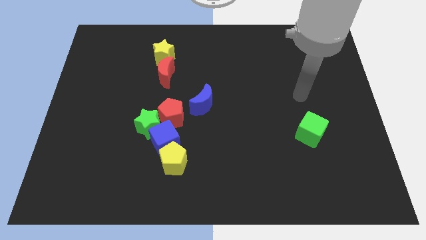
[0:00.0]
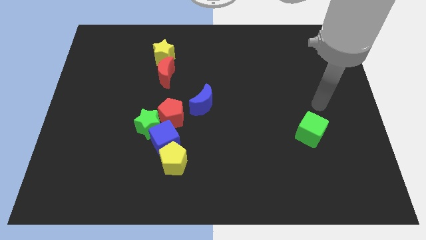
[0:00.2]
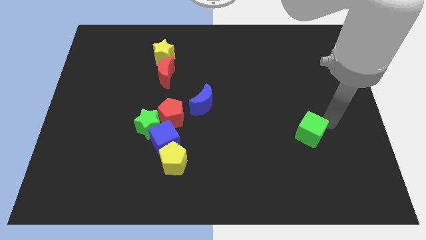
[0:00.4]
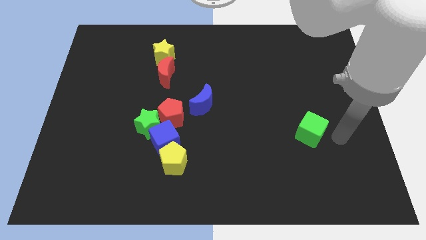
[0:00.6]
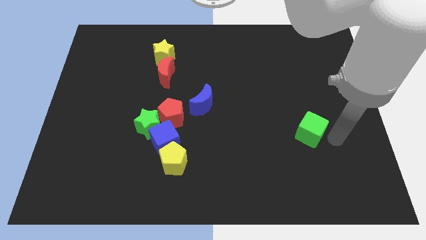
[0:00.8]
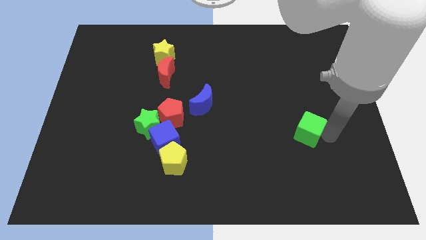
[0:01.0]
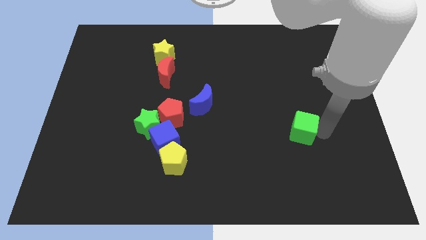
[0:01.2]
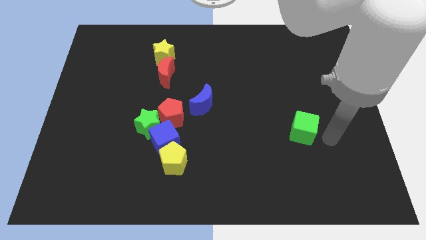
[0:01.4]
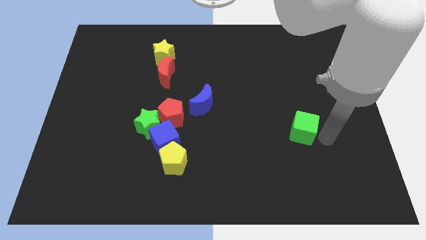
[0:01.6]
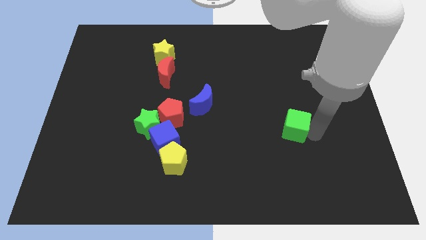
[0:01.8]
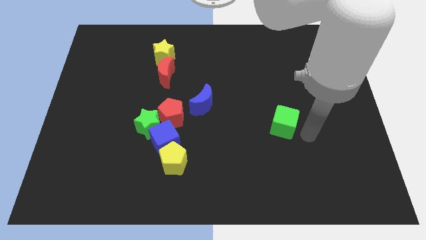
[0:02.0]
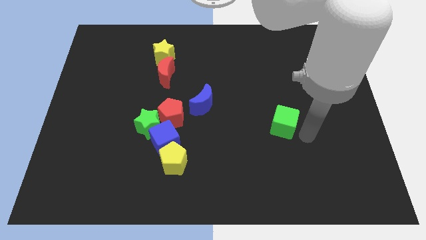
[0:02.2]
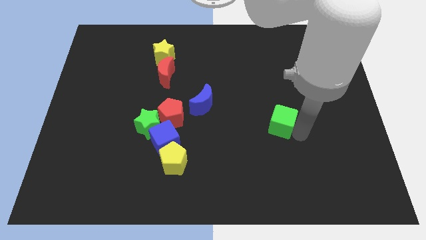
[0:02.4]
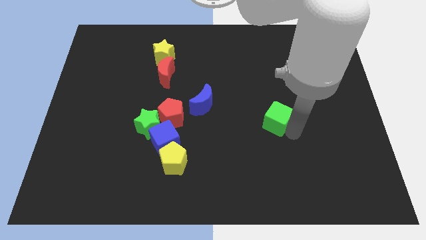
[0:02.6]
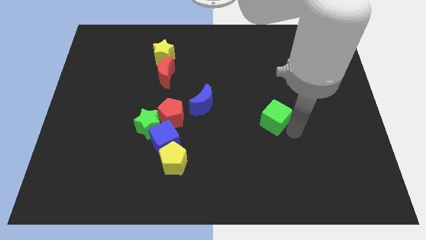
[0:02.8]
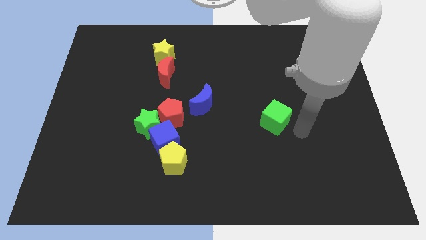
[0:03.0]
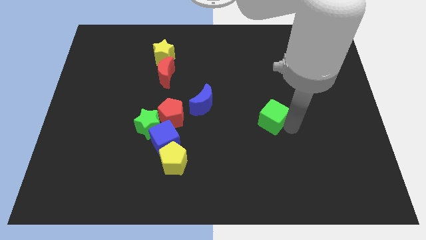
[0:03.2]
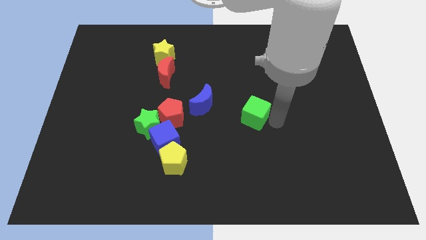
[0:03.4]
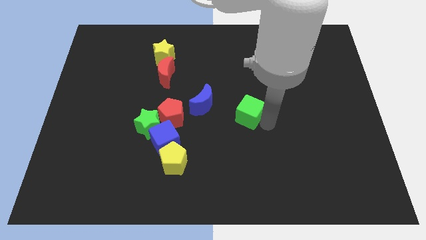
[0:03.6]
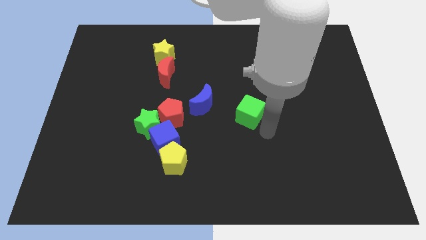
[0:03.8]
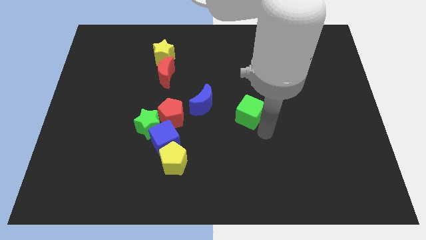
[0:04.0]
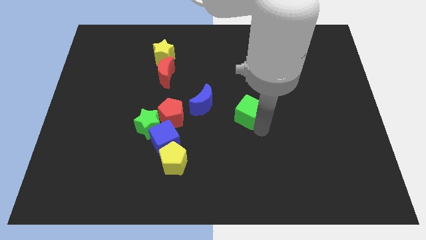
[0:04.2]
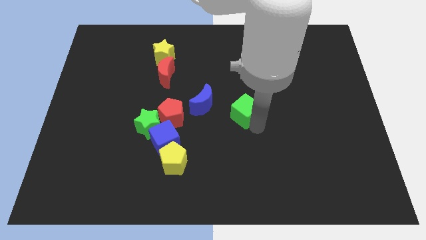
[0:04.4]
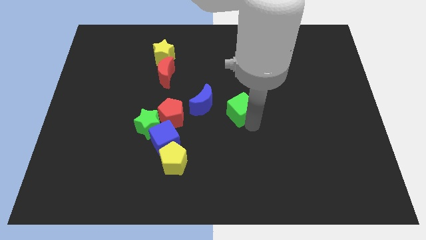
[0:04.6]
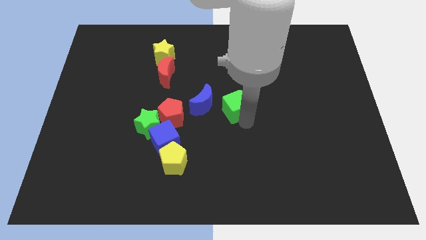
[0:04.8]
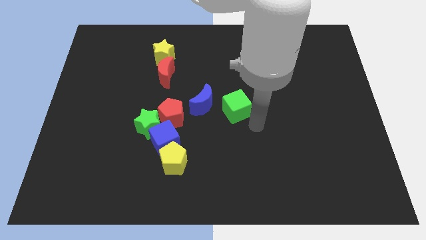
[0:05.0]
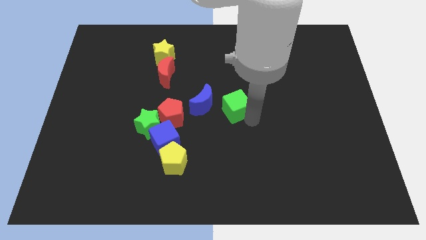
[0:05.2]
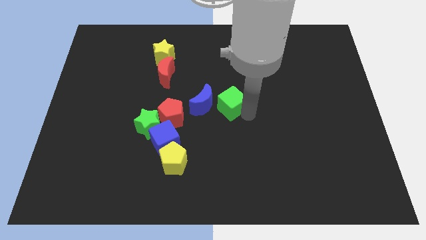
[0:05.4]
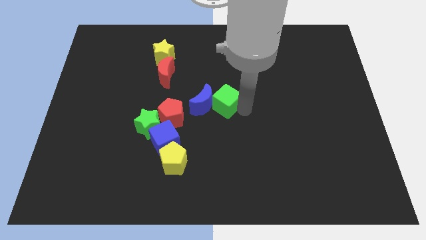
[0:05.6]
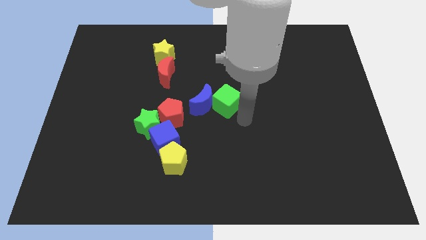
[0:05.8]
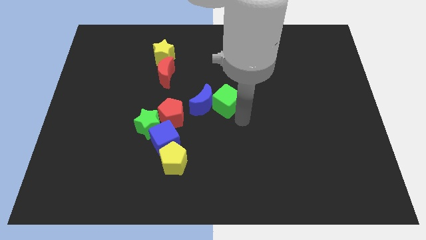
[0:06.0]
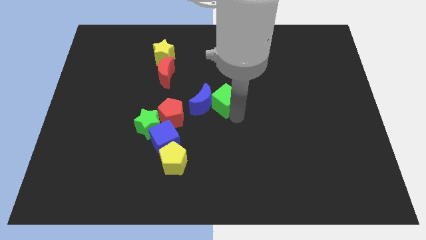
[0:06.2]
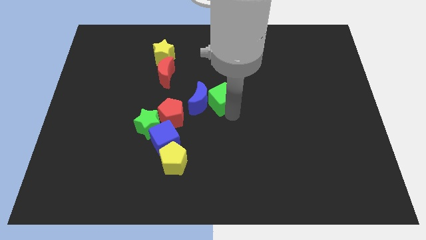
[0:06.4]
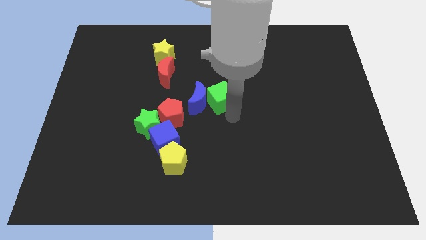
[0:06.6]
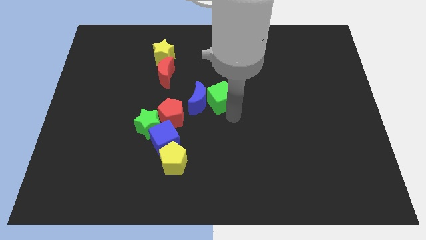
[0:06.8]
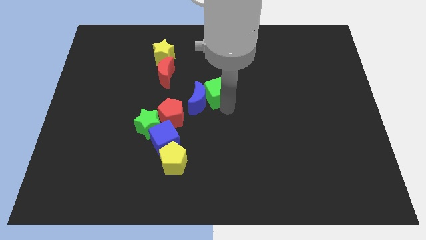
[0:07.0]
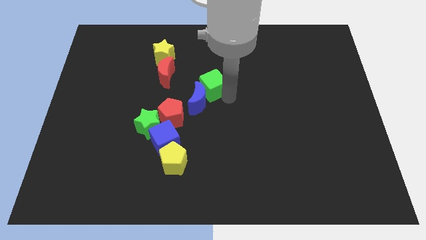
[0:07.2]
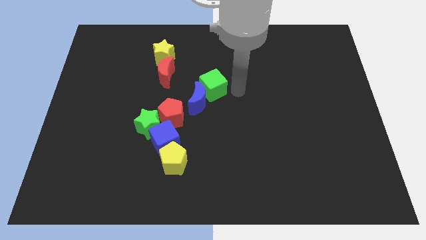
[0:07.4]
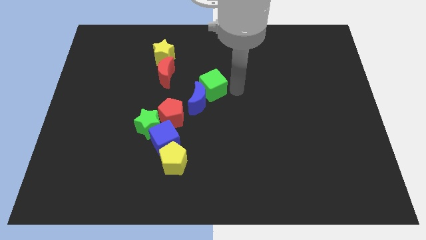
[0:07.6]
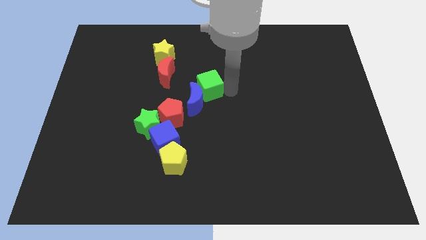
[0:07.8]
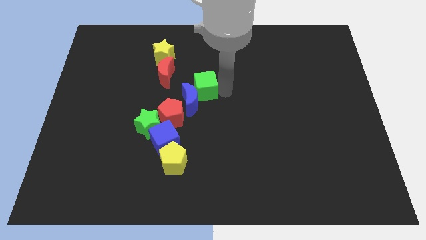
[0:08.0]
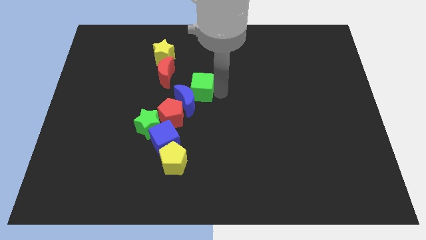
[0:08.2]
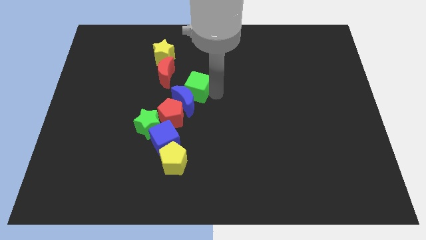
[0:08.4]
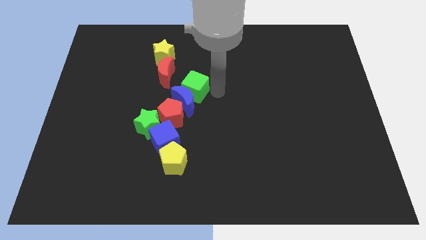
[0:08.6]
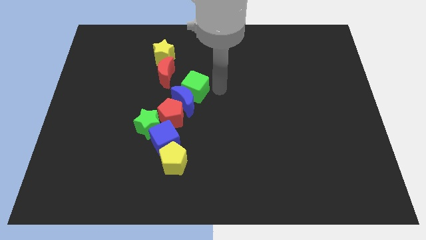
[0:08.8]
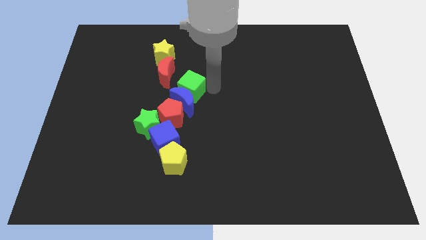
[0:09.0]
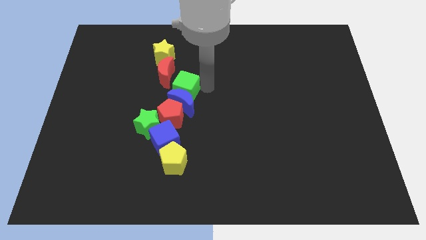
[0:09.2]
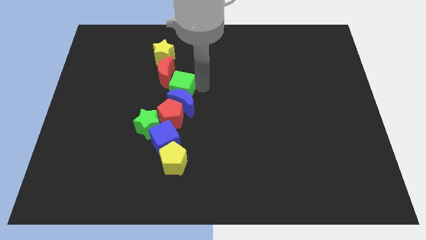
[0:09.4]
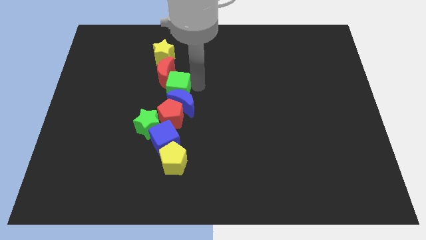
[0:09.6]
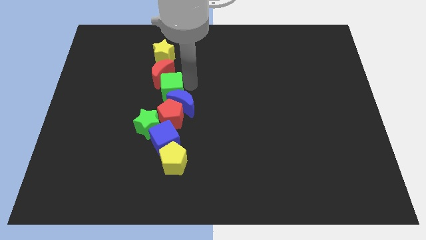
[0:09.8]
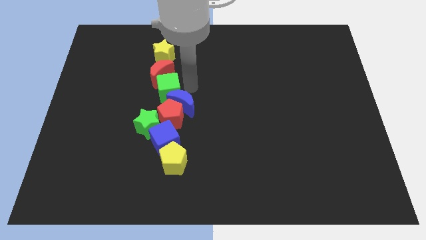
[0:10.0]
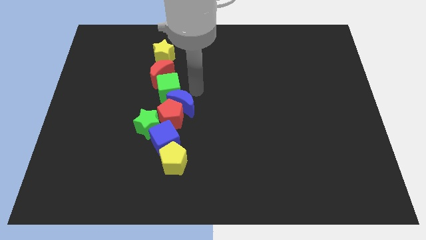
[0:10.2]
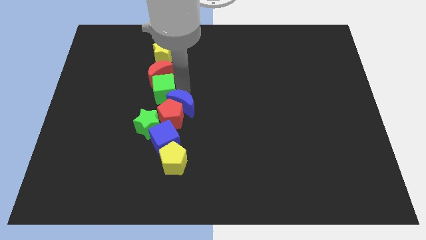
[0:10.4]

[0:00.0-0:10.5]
slide the green cube diagonally down and to the left of the red moon

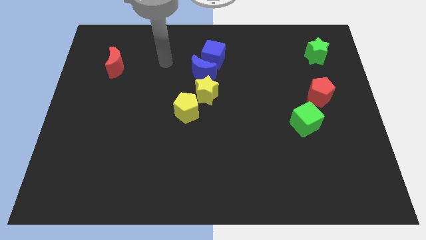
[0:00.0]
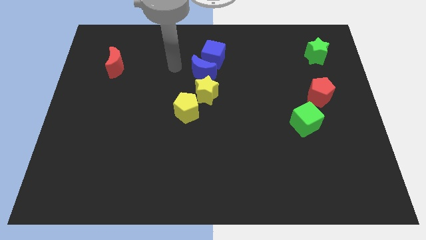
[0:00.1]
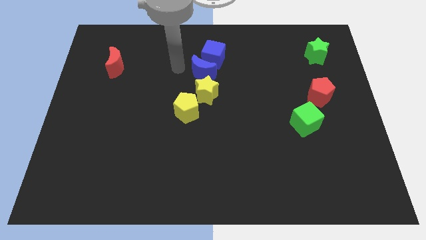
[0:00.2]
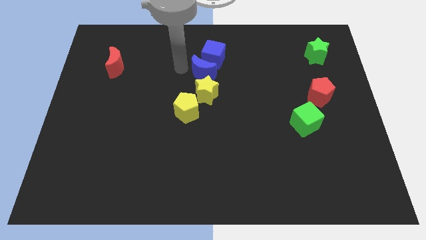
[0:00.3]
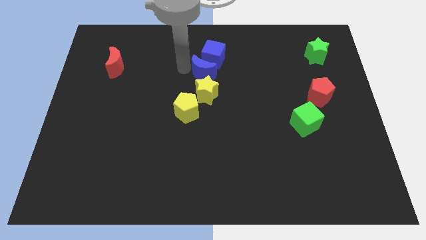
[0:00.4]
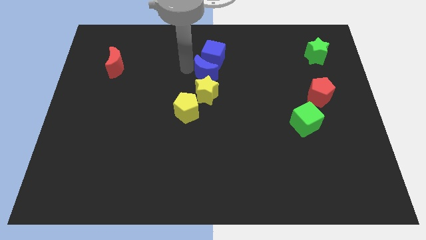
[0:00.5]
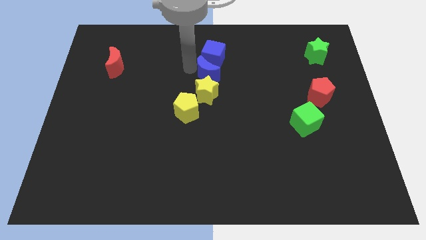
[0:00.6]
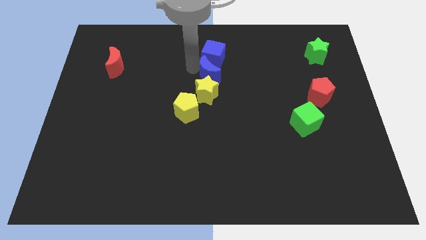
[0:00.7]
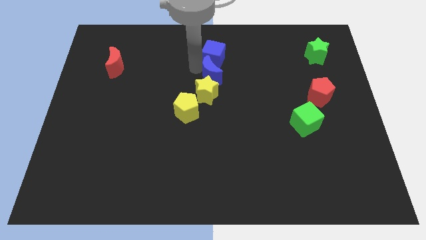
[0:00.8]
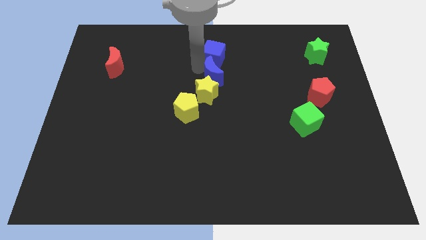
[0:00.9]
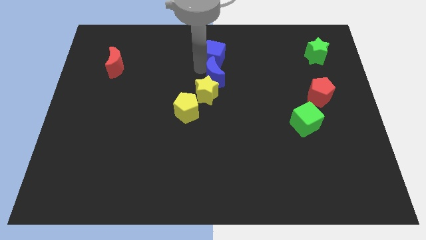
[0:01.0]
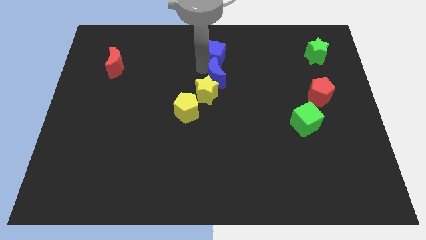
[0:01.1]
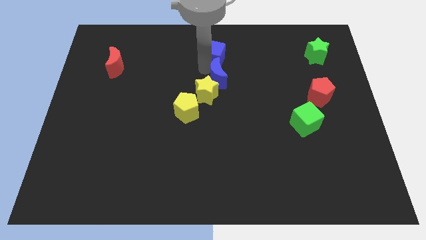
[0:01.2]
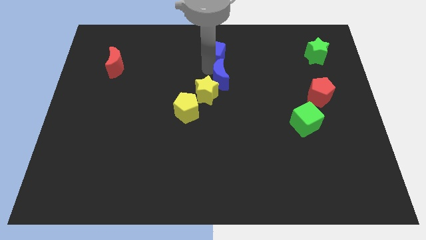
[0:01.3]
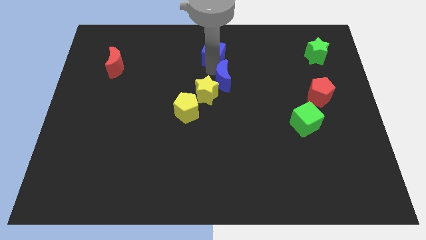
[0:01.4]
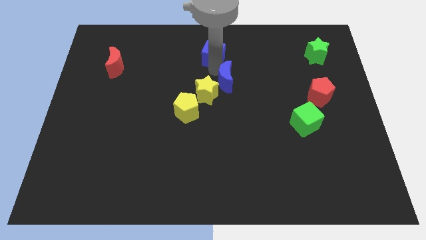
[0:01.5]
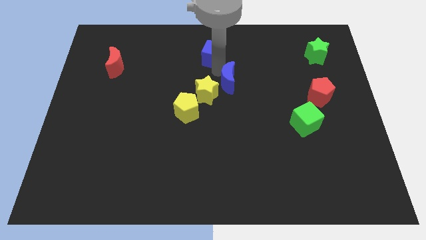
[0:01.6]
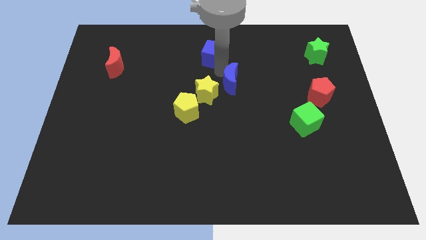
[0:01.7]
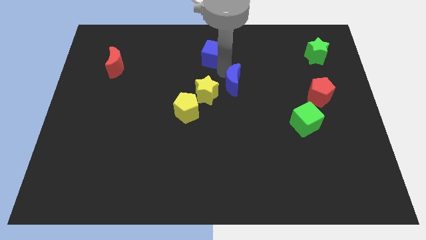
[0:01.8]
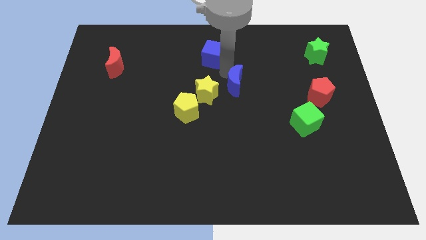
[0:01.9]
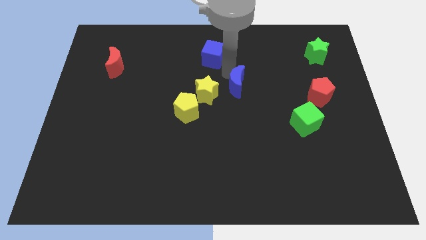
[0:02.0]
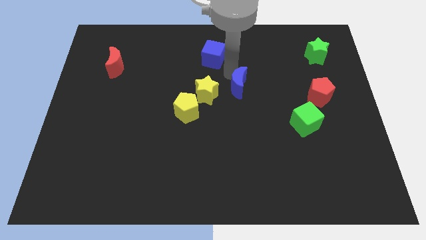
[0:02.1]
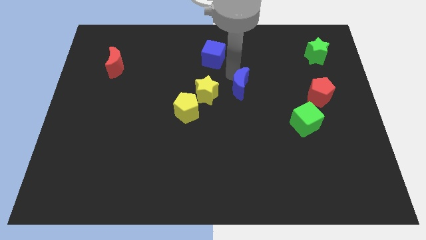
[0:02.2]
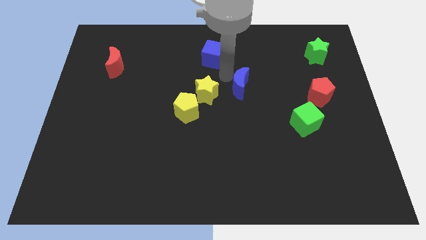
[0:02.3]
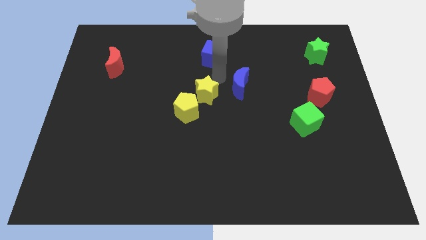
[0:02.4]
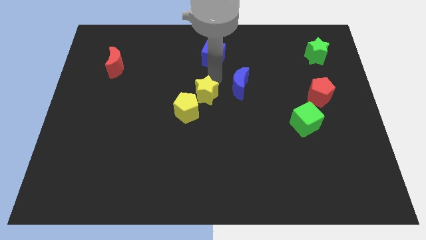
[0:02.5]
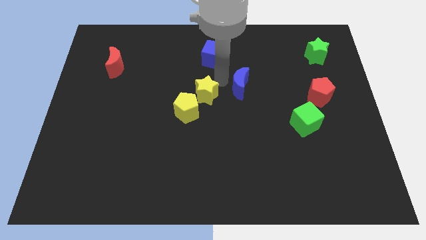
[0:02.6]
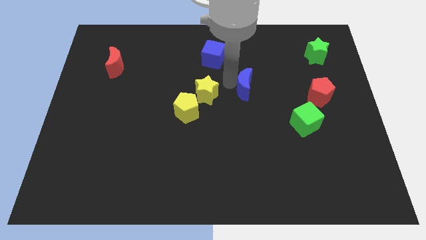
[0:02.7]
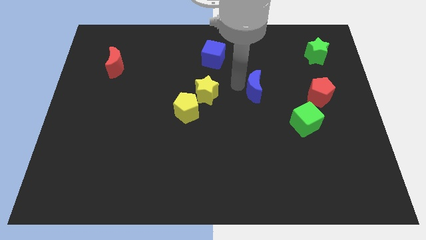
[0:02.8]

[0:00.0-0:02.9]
move the blue moon to the left of the red pentagon
